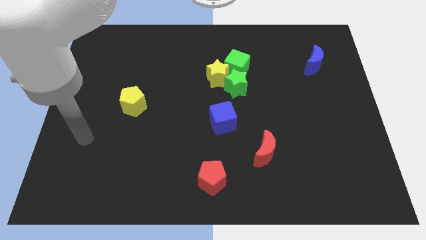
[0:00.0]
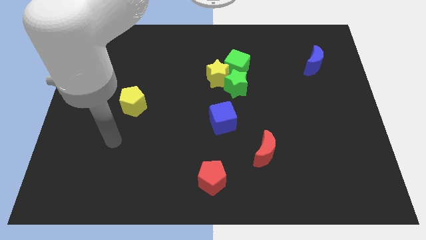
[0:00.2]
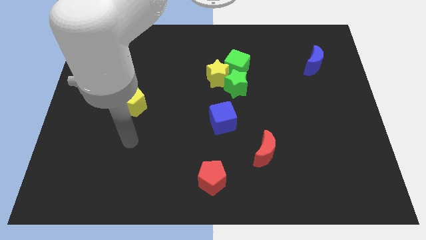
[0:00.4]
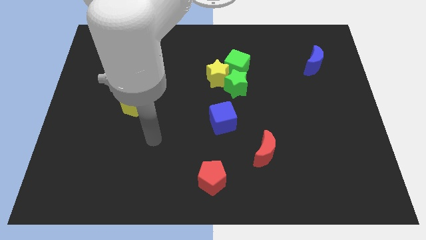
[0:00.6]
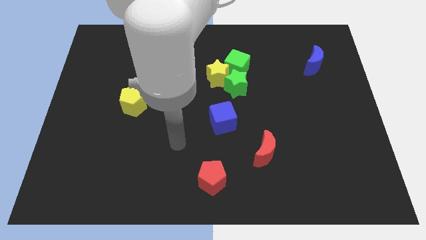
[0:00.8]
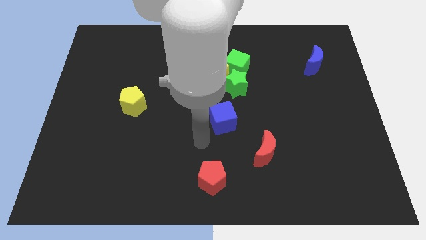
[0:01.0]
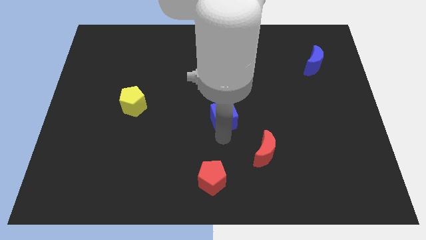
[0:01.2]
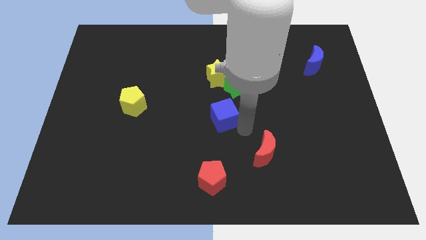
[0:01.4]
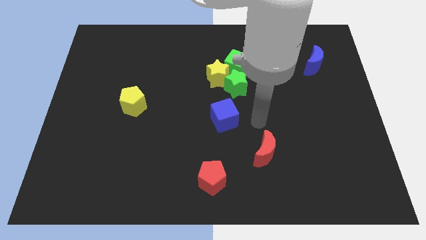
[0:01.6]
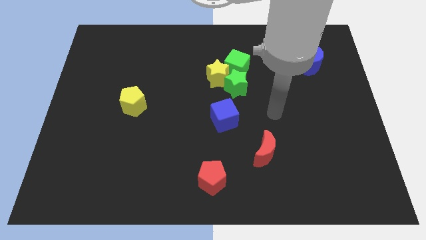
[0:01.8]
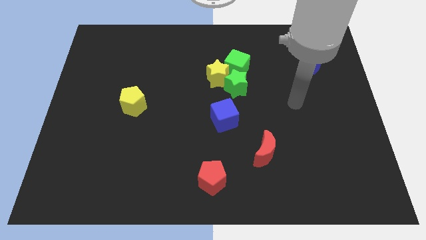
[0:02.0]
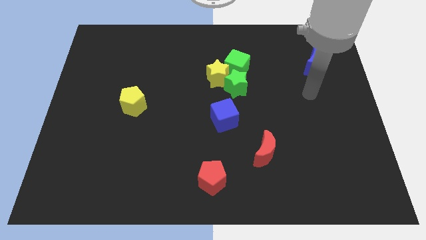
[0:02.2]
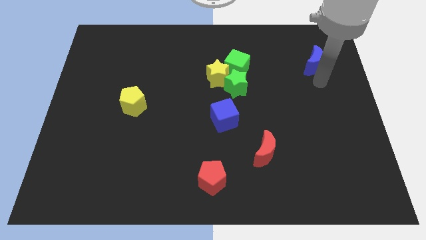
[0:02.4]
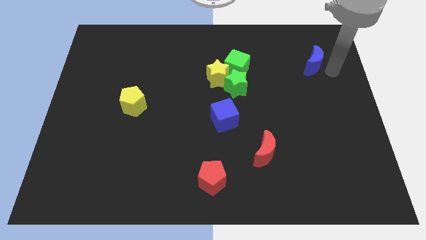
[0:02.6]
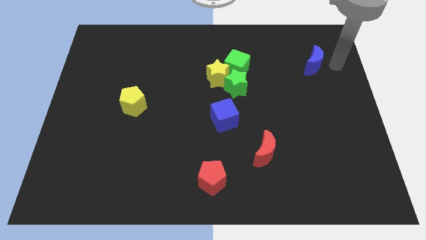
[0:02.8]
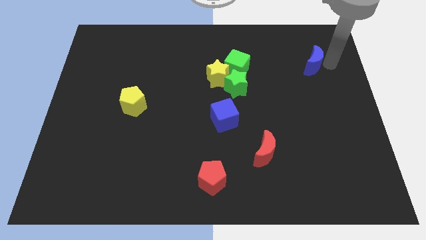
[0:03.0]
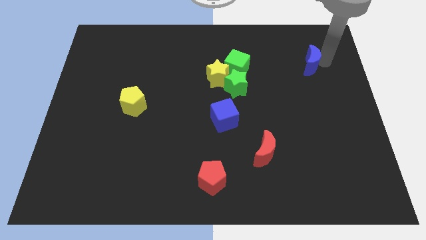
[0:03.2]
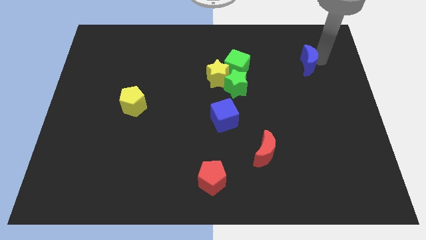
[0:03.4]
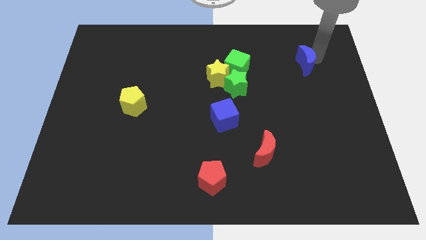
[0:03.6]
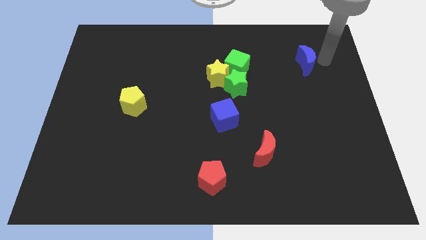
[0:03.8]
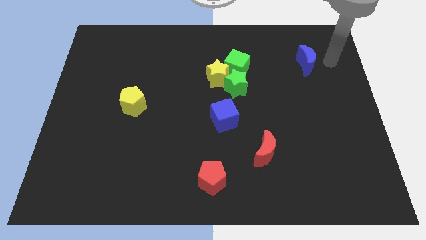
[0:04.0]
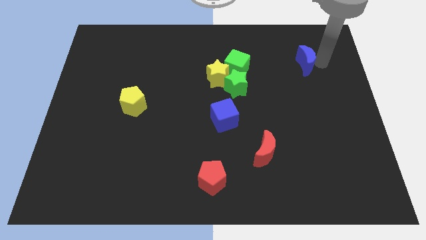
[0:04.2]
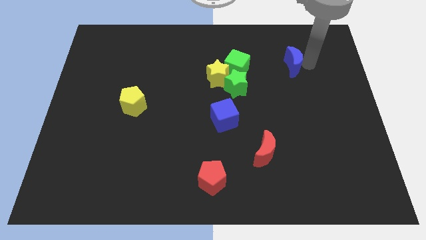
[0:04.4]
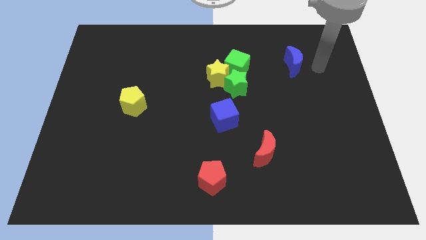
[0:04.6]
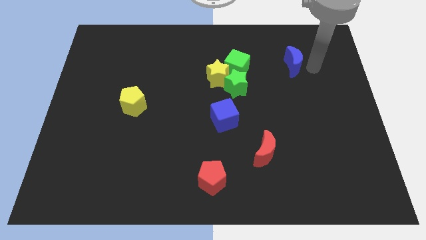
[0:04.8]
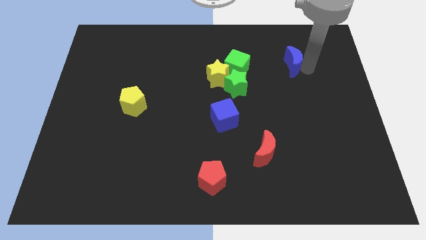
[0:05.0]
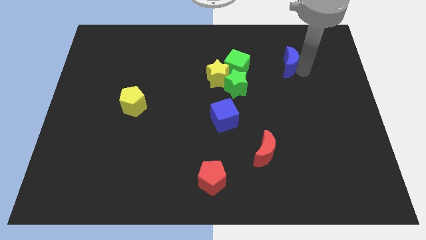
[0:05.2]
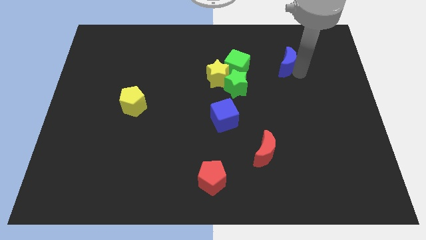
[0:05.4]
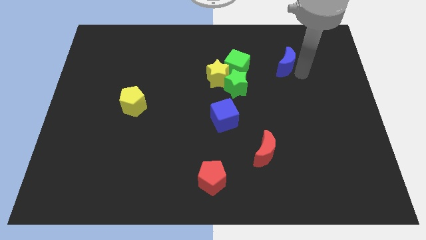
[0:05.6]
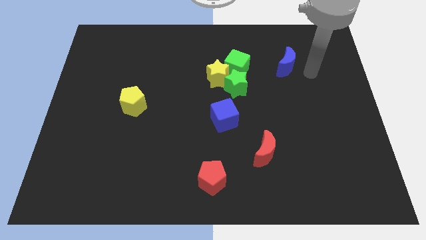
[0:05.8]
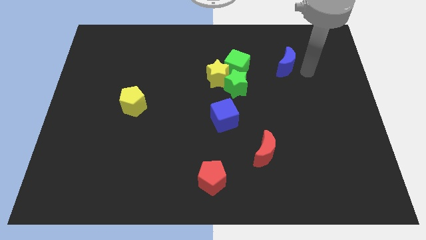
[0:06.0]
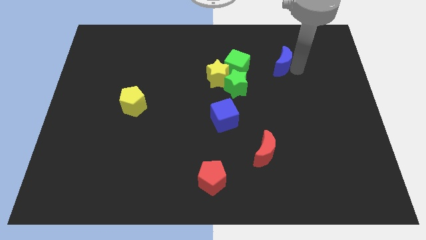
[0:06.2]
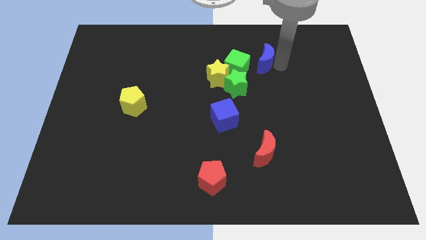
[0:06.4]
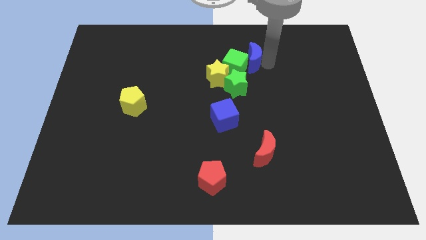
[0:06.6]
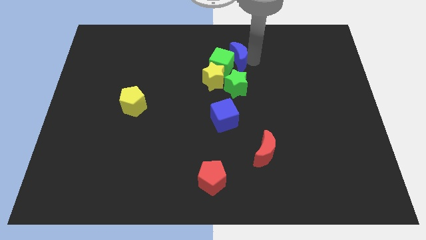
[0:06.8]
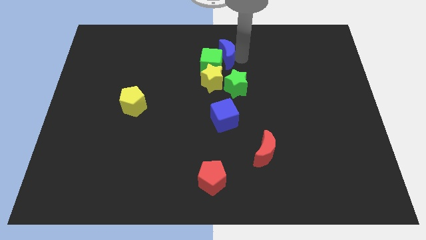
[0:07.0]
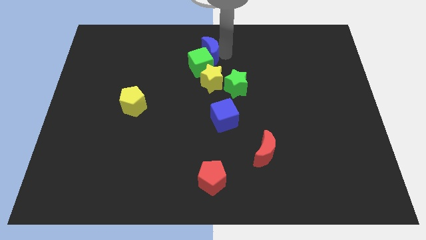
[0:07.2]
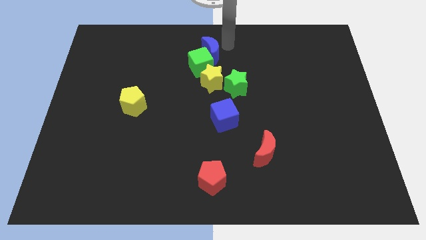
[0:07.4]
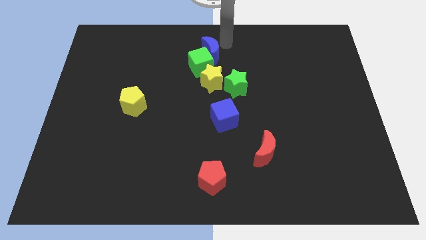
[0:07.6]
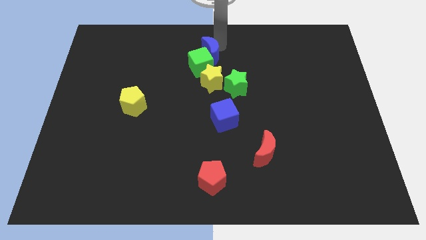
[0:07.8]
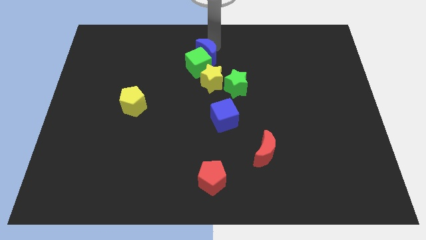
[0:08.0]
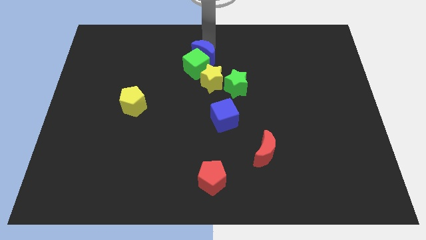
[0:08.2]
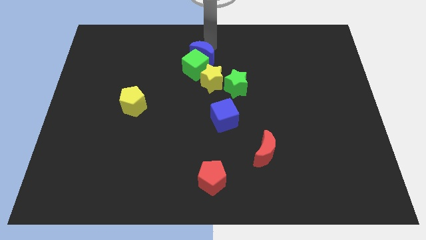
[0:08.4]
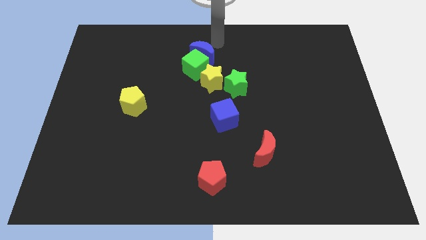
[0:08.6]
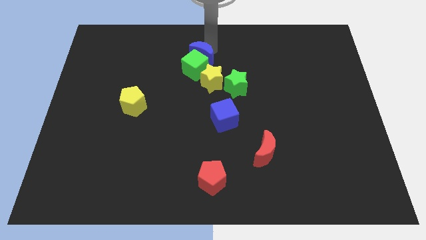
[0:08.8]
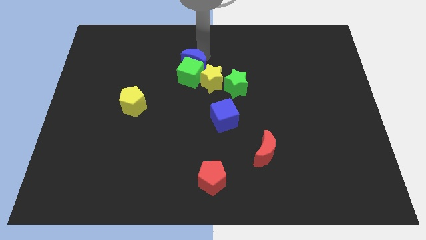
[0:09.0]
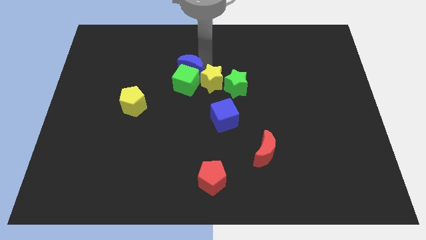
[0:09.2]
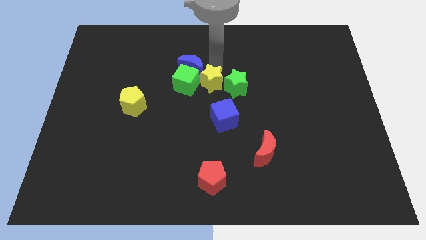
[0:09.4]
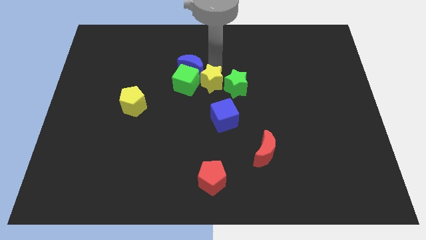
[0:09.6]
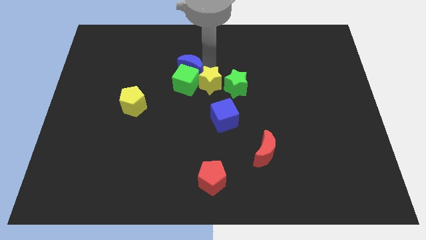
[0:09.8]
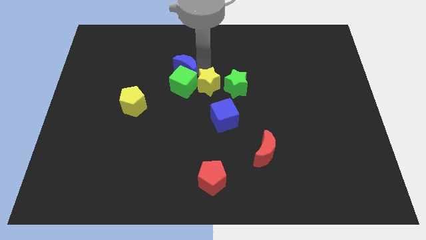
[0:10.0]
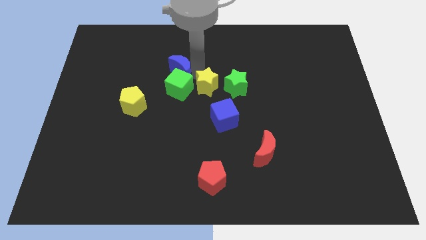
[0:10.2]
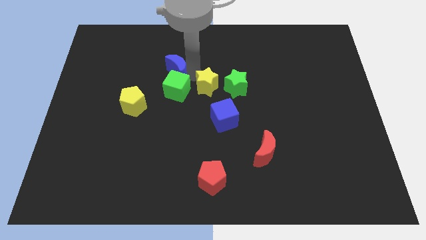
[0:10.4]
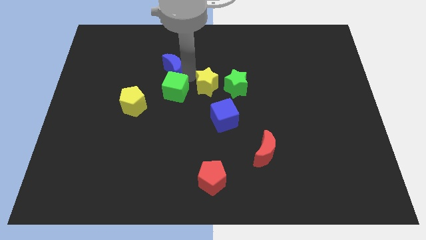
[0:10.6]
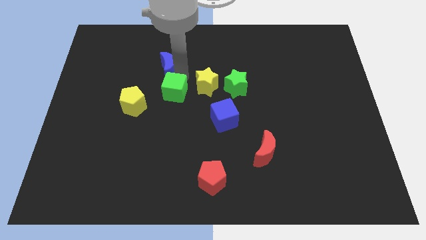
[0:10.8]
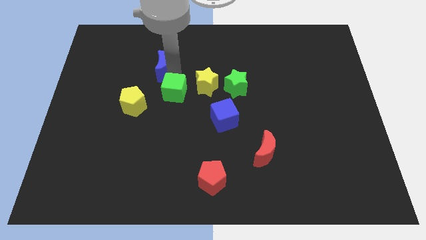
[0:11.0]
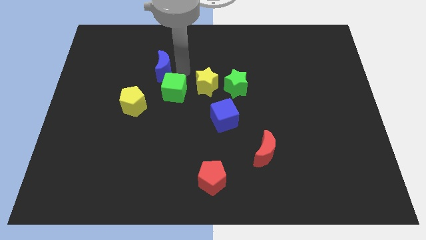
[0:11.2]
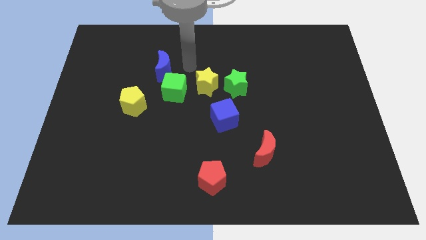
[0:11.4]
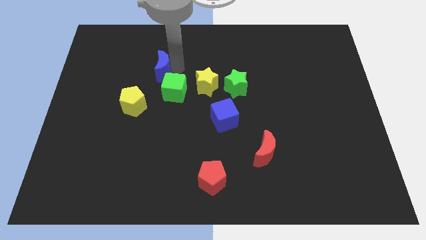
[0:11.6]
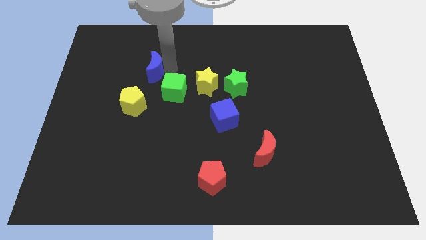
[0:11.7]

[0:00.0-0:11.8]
push the blue moon above the yellow pentagon

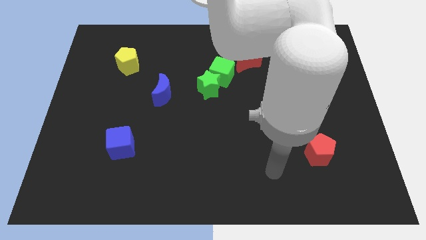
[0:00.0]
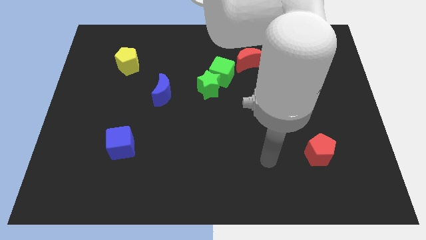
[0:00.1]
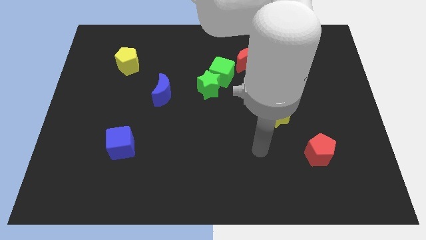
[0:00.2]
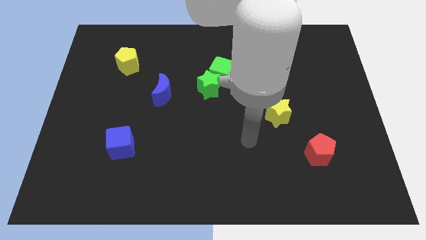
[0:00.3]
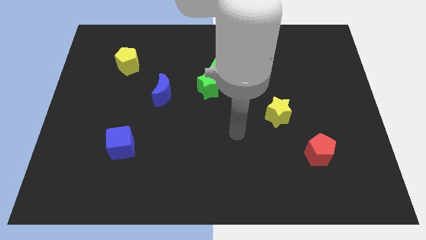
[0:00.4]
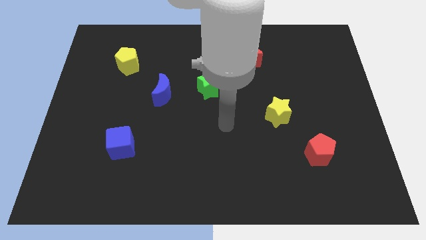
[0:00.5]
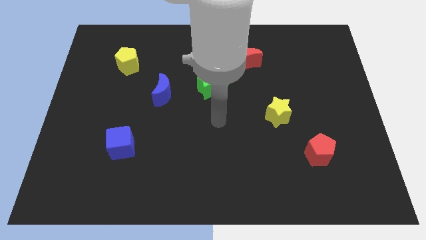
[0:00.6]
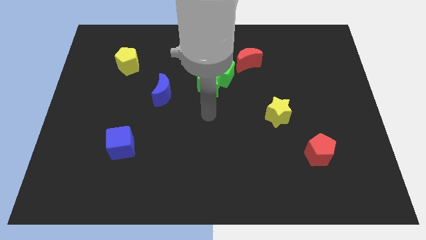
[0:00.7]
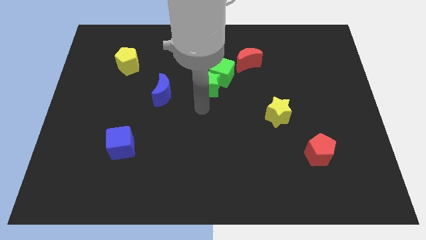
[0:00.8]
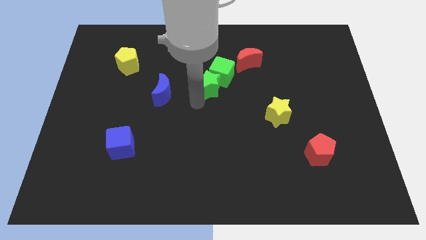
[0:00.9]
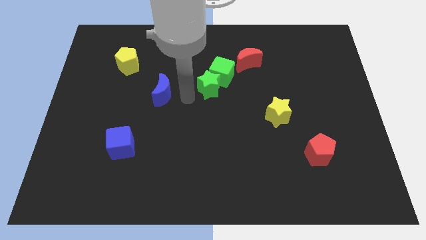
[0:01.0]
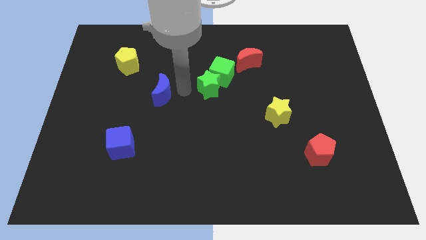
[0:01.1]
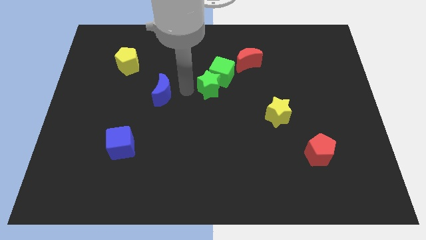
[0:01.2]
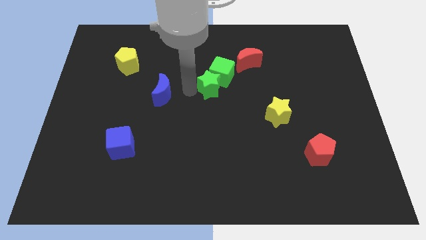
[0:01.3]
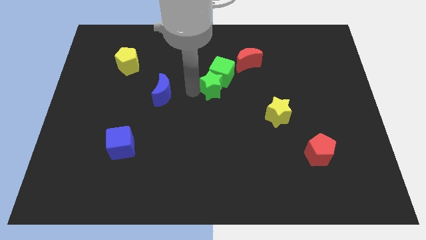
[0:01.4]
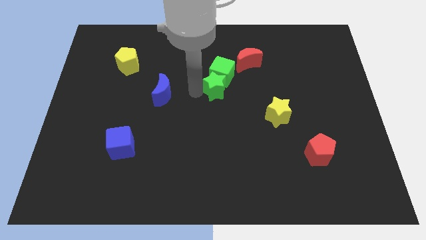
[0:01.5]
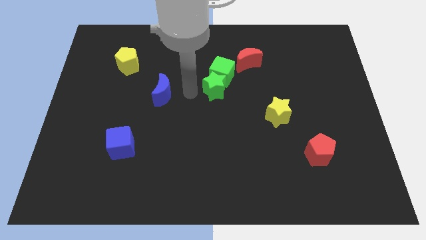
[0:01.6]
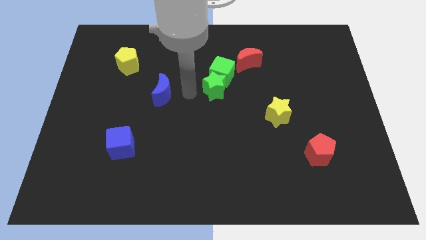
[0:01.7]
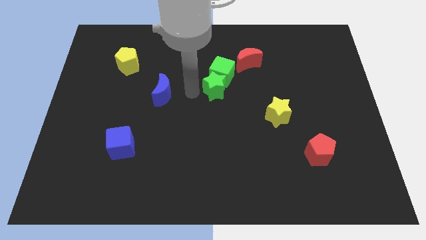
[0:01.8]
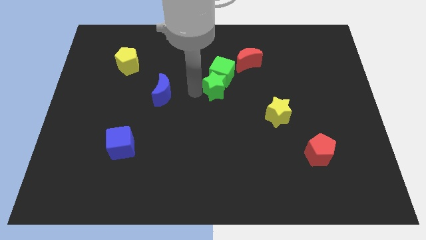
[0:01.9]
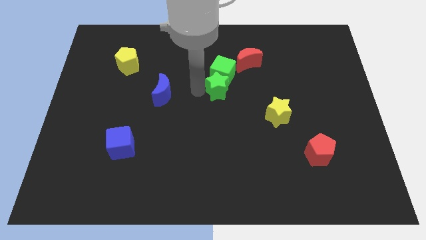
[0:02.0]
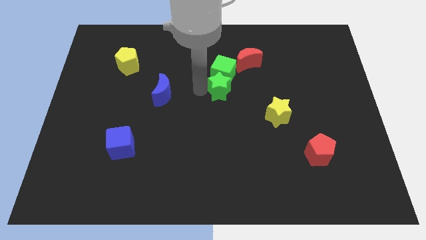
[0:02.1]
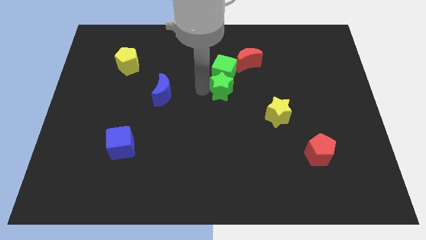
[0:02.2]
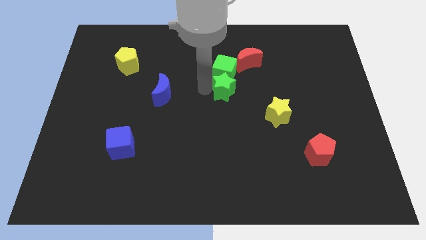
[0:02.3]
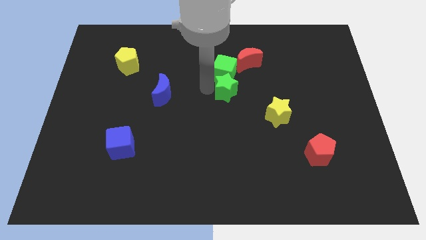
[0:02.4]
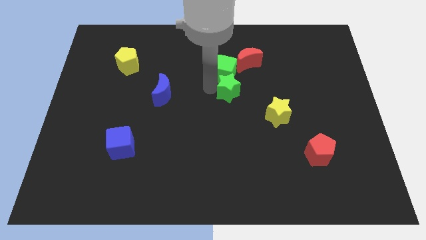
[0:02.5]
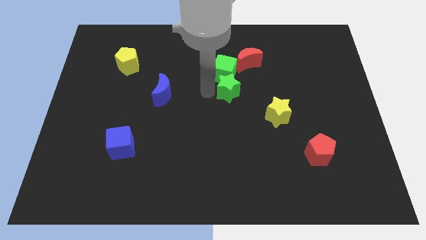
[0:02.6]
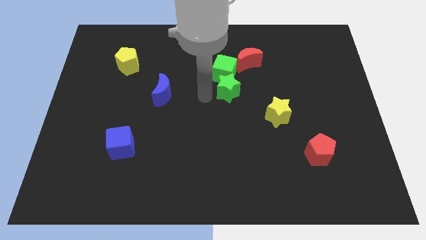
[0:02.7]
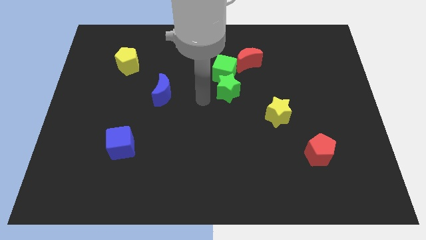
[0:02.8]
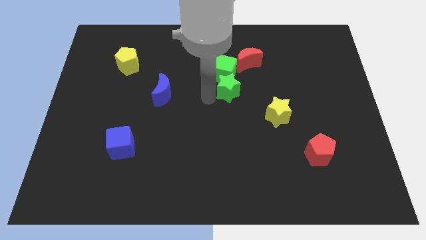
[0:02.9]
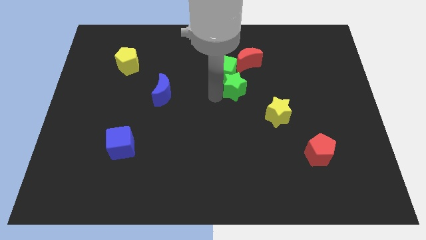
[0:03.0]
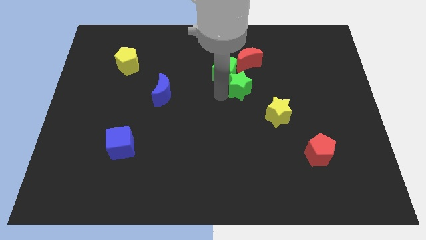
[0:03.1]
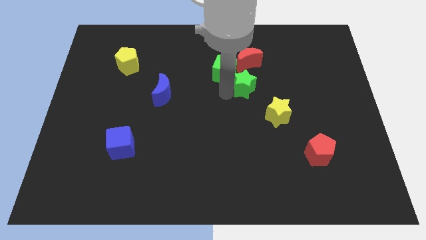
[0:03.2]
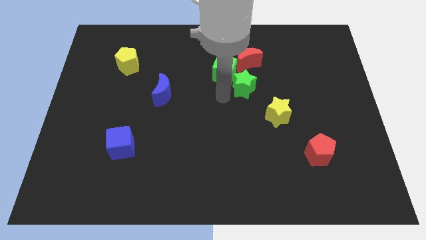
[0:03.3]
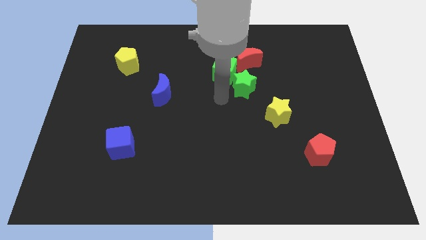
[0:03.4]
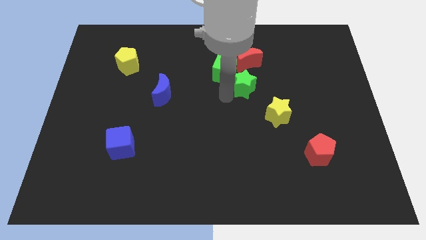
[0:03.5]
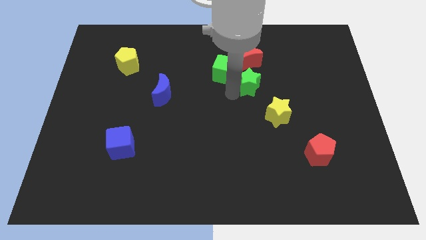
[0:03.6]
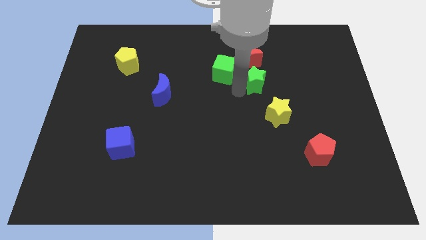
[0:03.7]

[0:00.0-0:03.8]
put the green star to the bottom right side of the red moon
